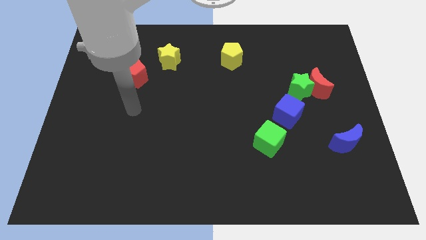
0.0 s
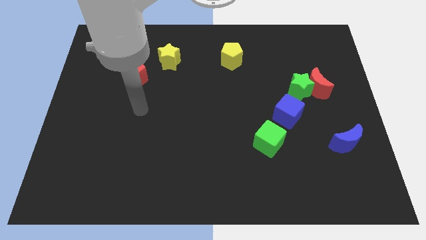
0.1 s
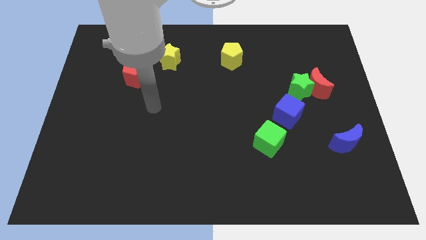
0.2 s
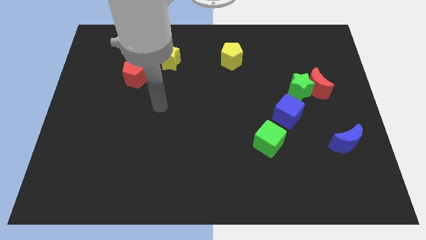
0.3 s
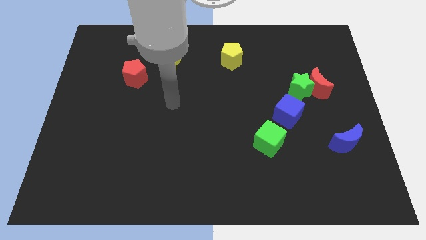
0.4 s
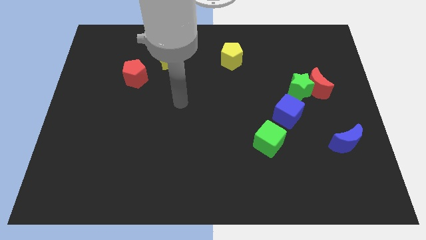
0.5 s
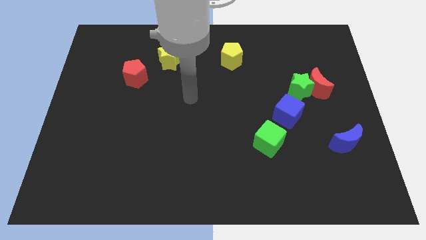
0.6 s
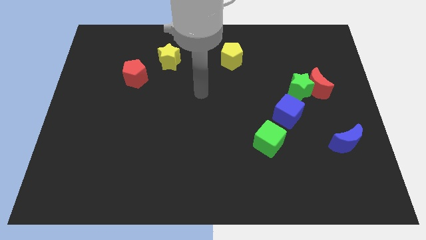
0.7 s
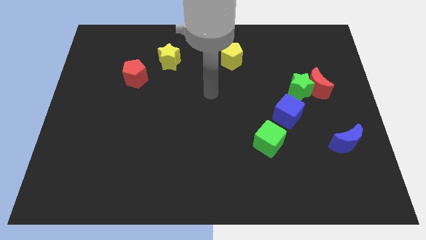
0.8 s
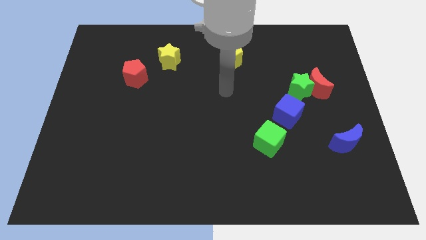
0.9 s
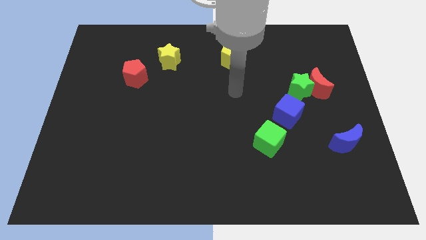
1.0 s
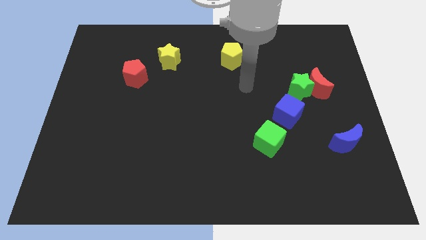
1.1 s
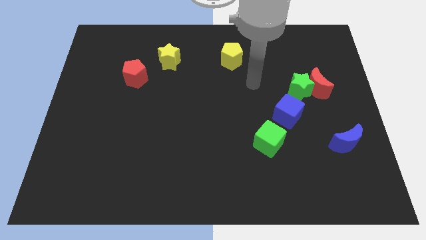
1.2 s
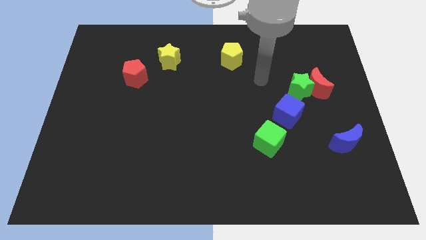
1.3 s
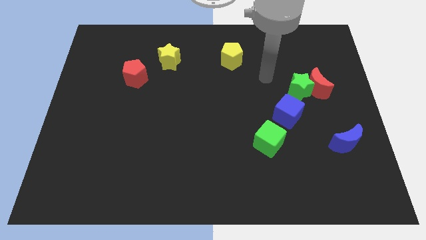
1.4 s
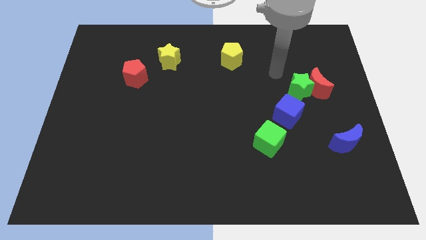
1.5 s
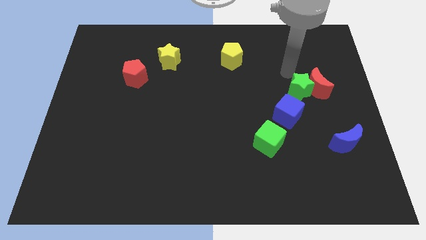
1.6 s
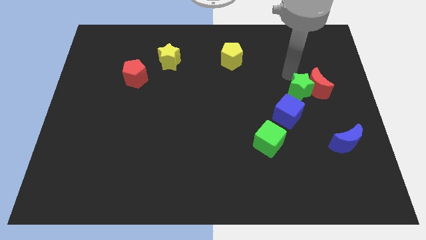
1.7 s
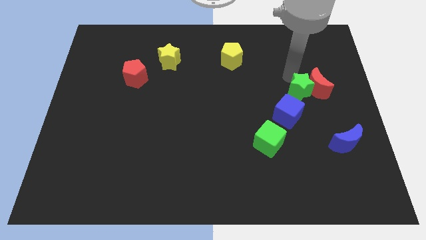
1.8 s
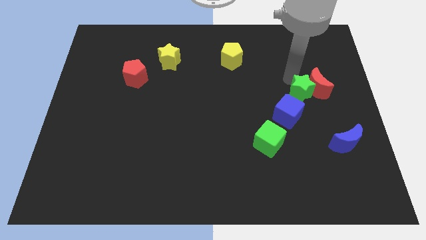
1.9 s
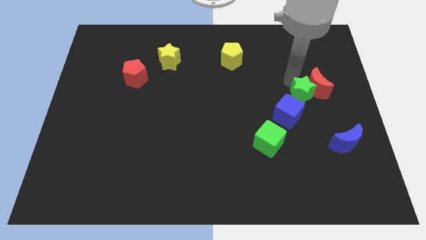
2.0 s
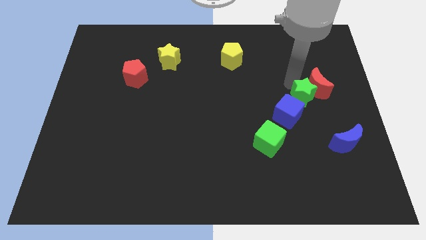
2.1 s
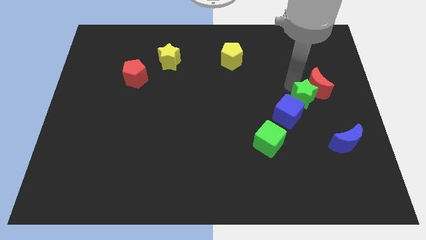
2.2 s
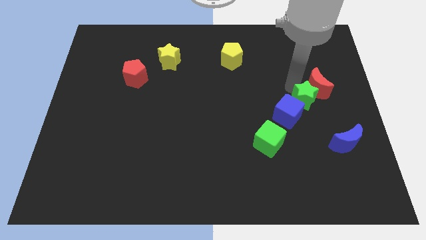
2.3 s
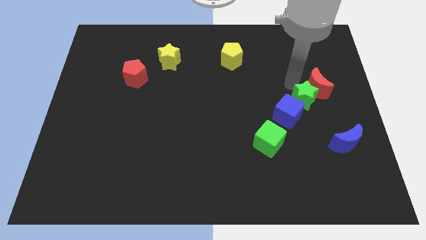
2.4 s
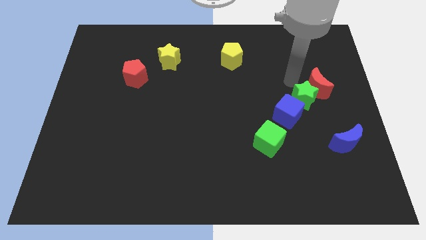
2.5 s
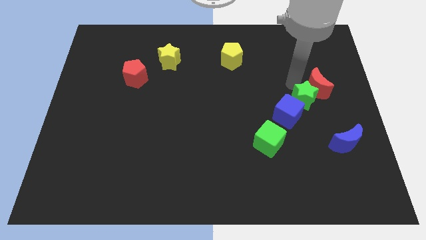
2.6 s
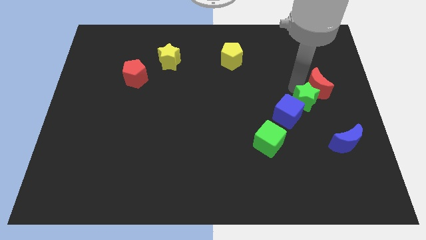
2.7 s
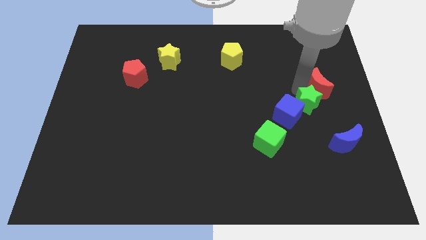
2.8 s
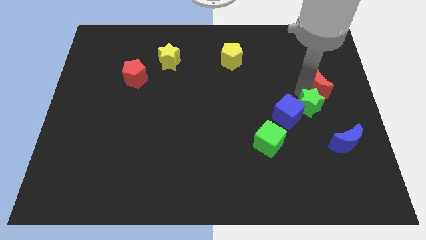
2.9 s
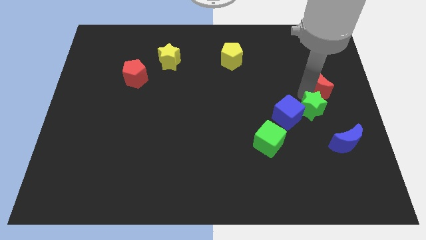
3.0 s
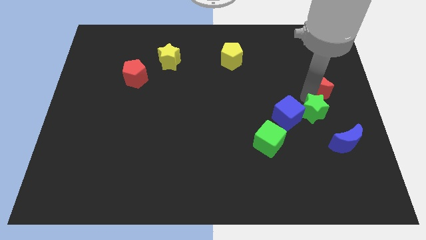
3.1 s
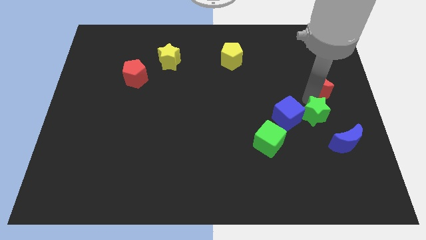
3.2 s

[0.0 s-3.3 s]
slightly slide the green star downwards

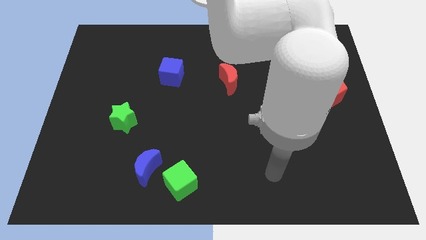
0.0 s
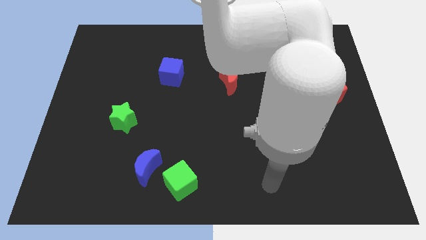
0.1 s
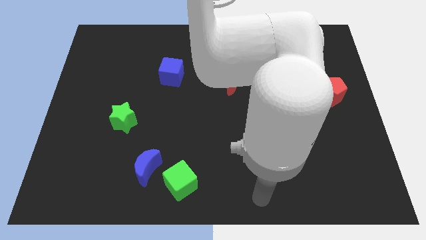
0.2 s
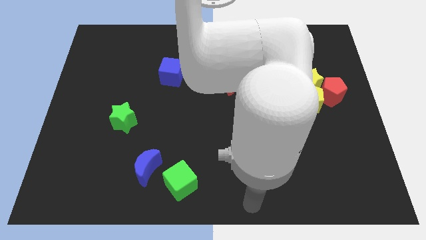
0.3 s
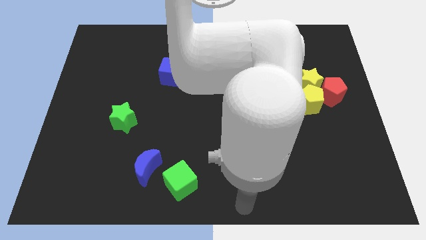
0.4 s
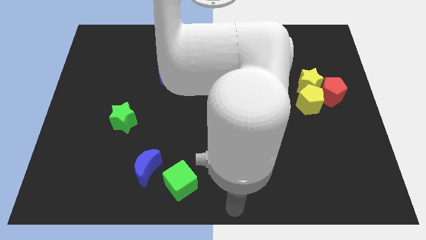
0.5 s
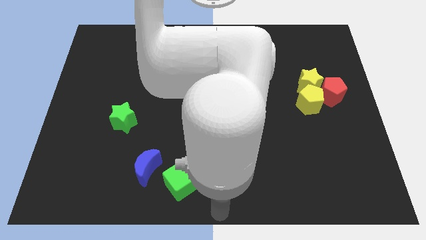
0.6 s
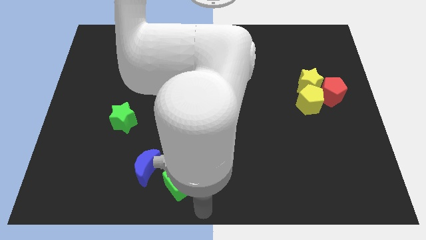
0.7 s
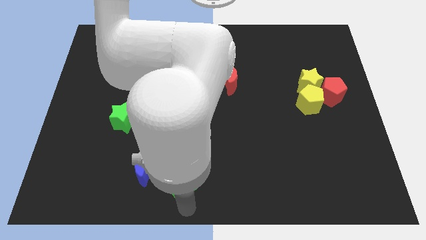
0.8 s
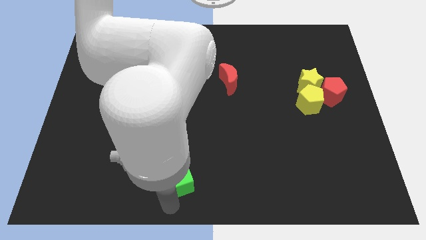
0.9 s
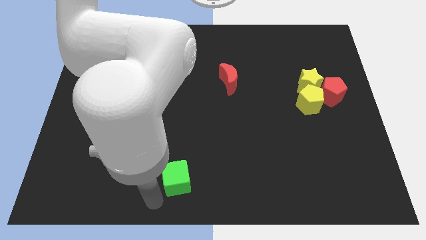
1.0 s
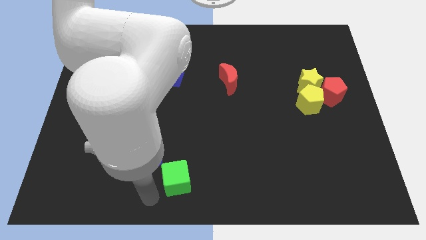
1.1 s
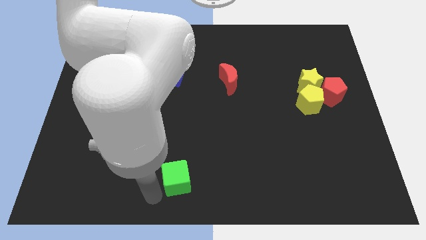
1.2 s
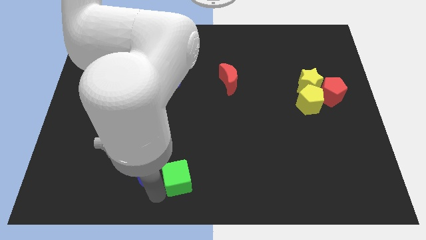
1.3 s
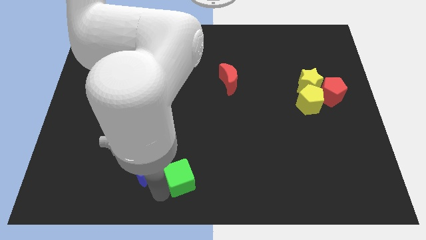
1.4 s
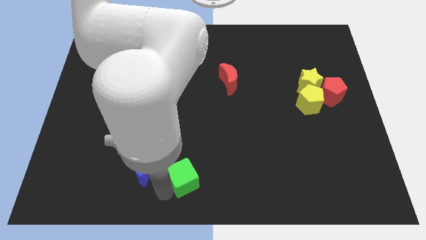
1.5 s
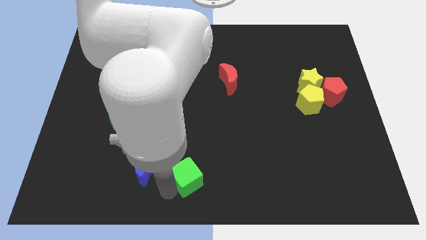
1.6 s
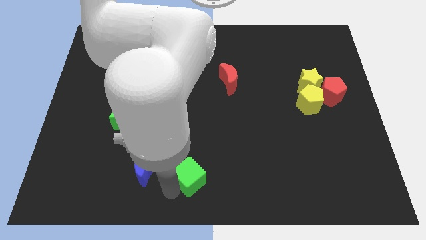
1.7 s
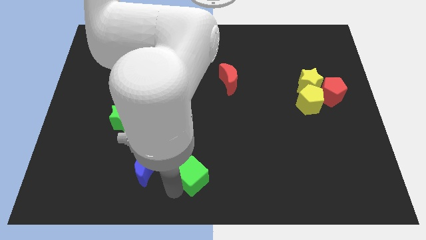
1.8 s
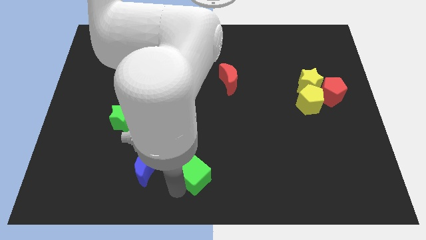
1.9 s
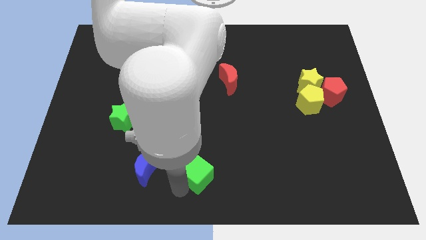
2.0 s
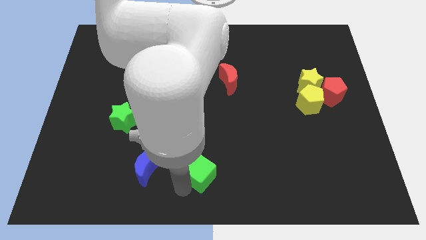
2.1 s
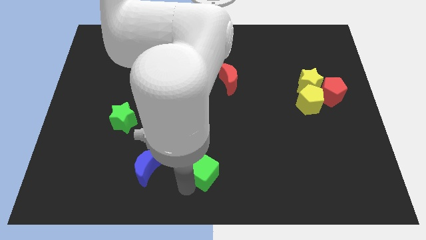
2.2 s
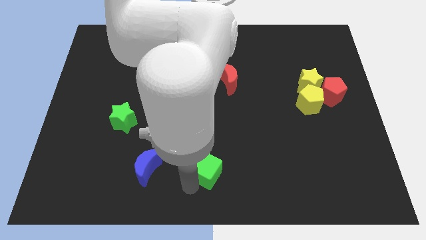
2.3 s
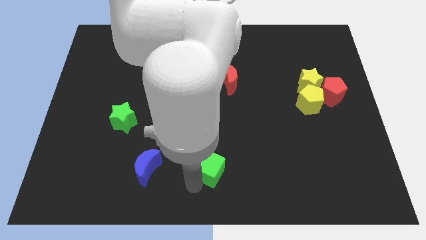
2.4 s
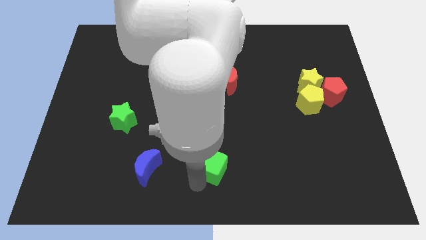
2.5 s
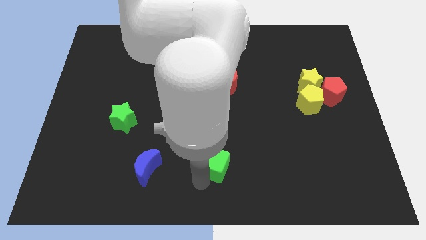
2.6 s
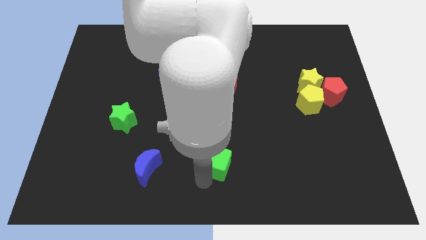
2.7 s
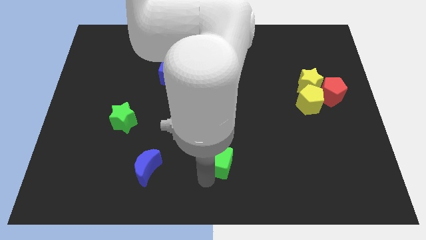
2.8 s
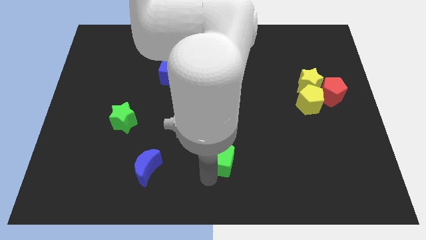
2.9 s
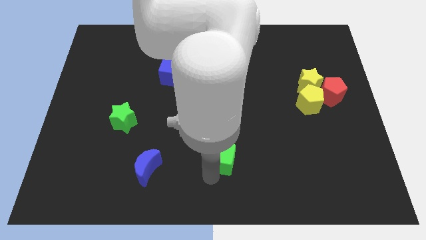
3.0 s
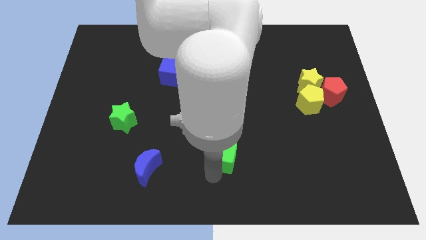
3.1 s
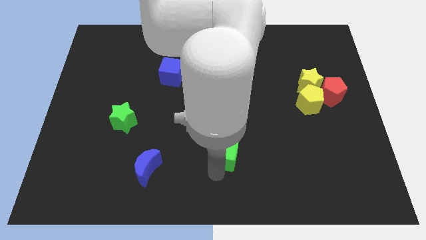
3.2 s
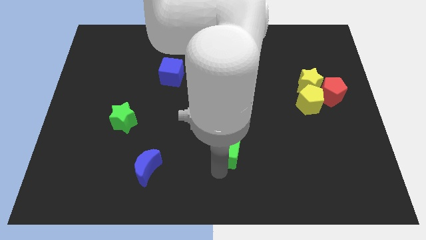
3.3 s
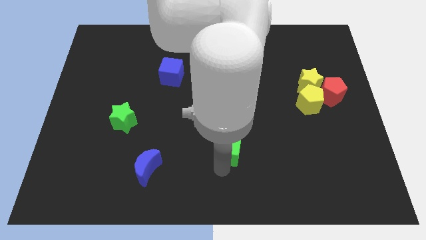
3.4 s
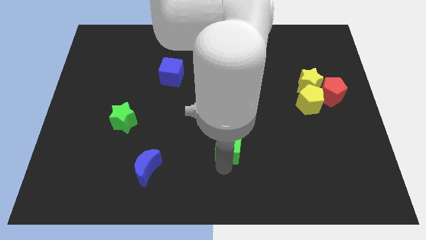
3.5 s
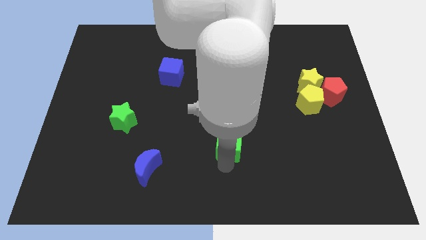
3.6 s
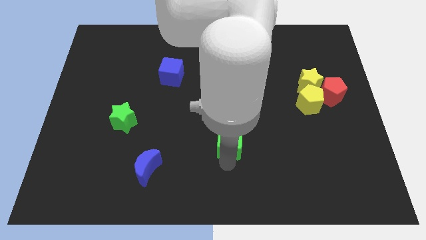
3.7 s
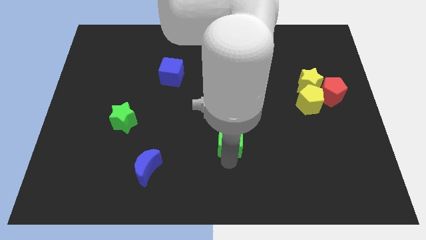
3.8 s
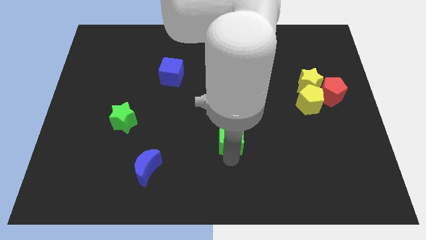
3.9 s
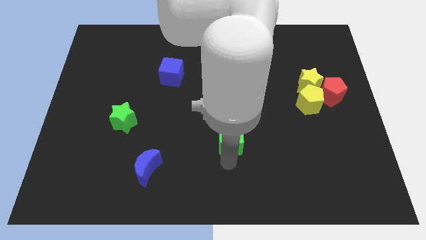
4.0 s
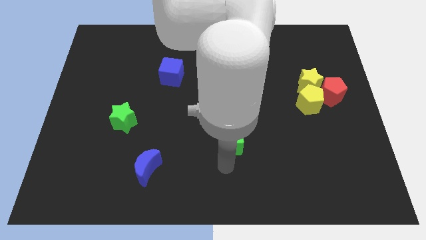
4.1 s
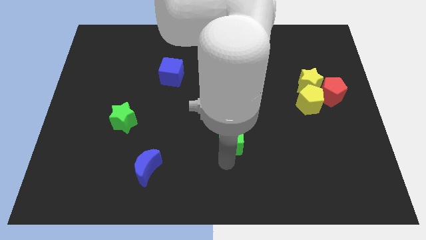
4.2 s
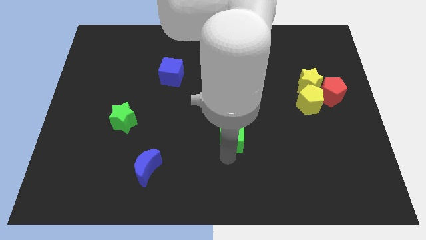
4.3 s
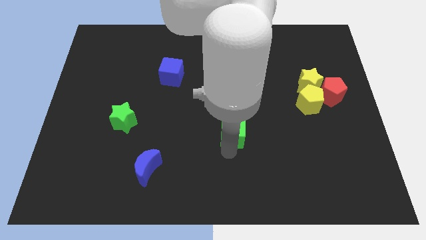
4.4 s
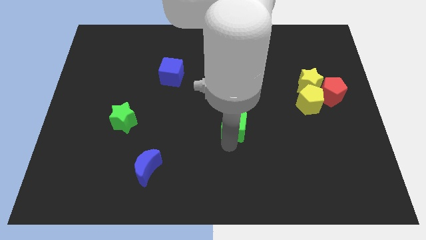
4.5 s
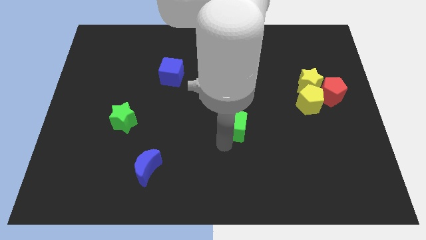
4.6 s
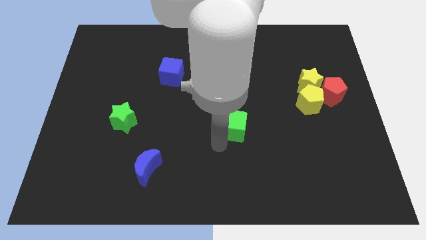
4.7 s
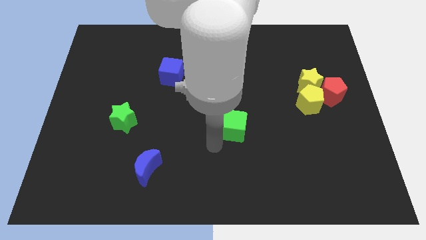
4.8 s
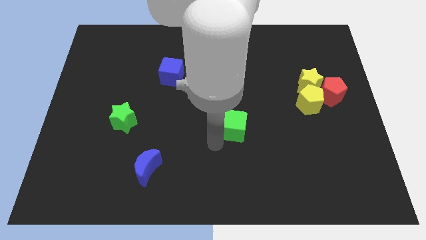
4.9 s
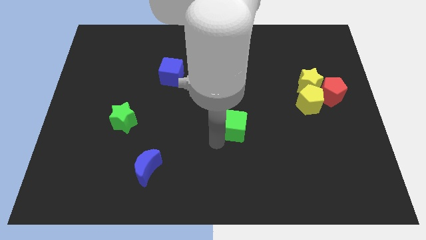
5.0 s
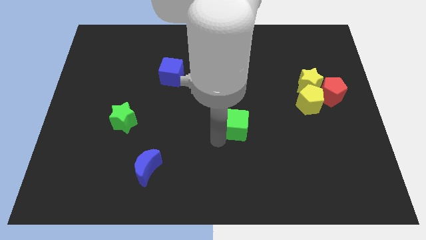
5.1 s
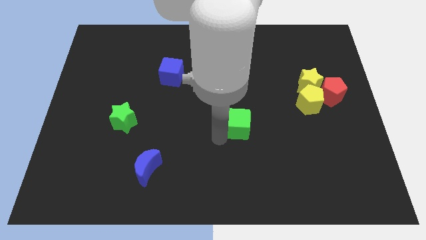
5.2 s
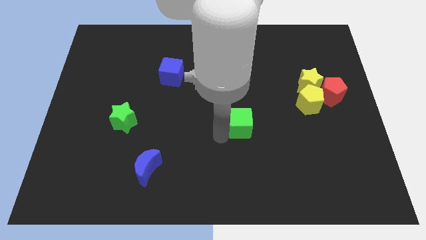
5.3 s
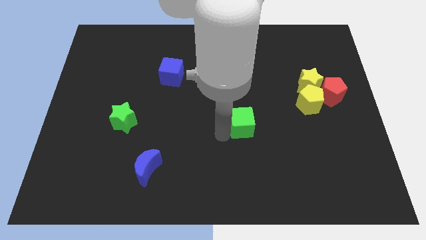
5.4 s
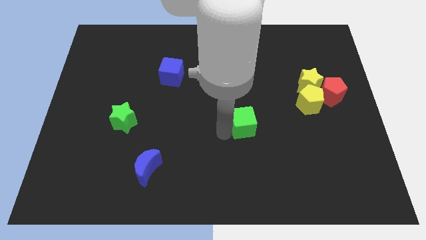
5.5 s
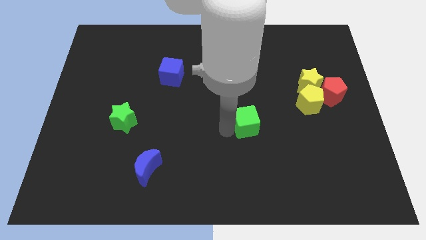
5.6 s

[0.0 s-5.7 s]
push the green cube up and then right
